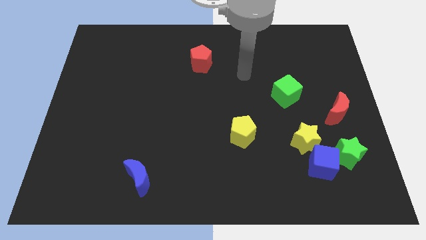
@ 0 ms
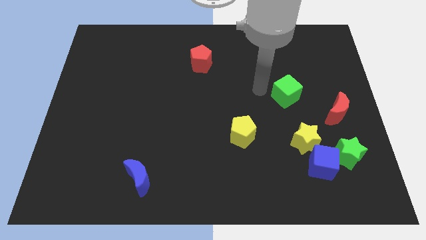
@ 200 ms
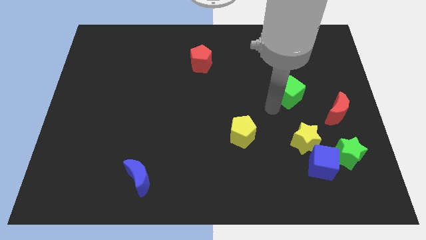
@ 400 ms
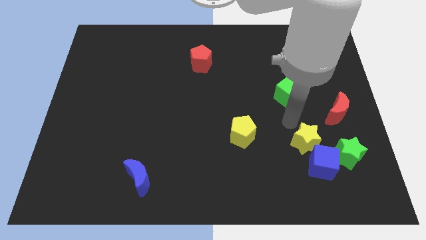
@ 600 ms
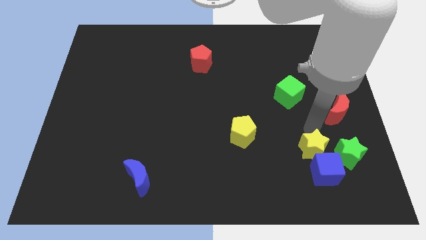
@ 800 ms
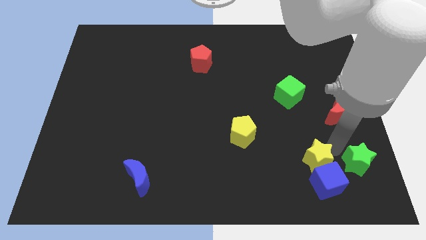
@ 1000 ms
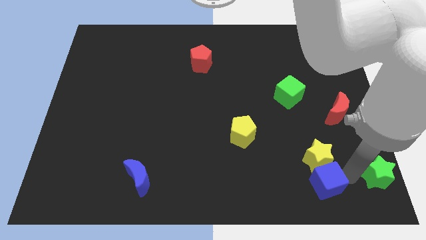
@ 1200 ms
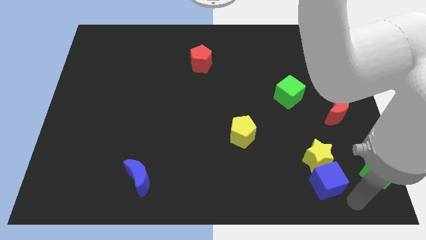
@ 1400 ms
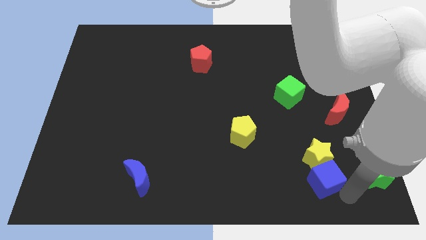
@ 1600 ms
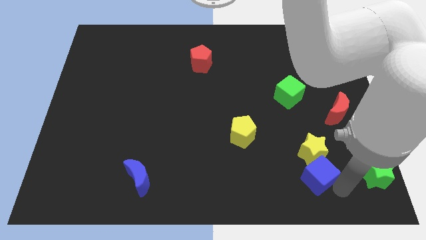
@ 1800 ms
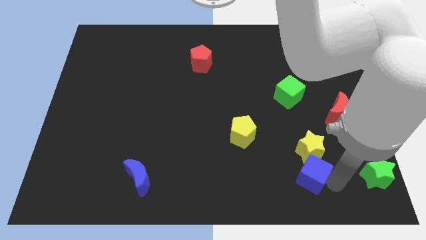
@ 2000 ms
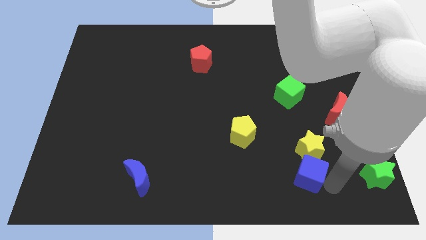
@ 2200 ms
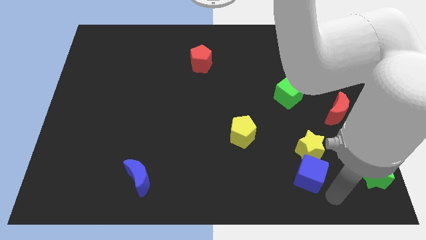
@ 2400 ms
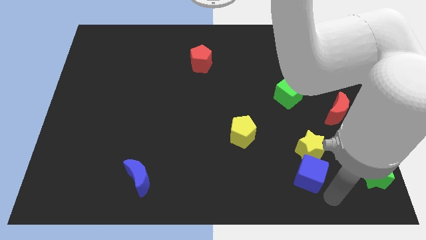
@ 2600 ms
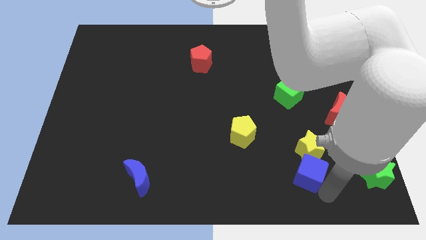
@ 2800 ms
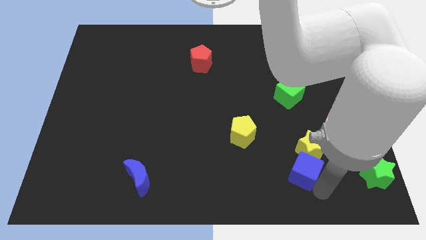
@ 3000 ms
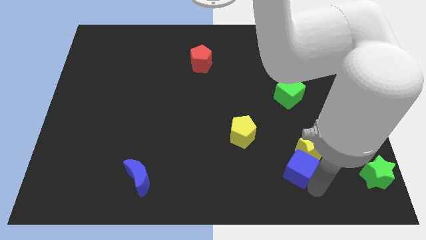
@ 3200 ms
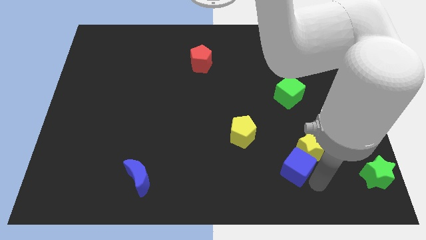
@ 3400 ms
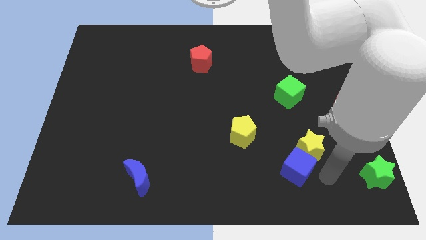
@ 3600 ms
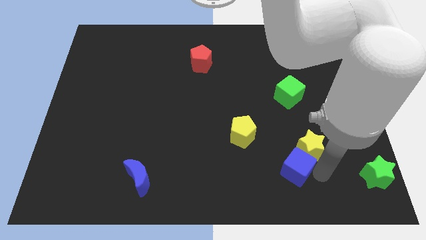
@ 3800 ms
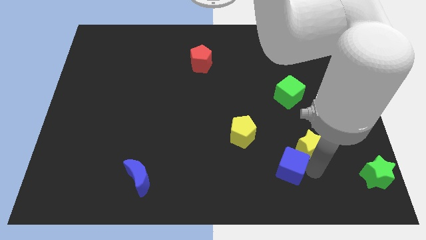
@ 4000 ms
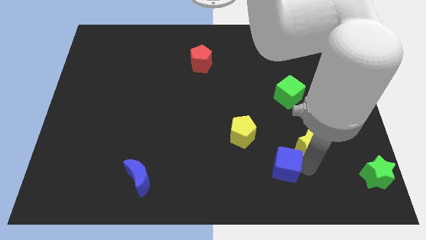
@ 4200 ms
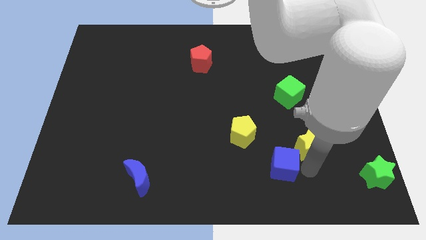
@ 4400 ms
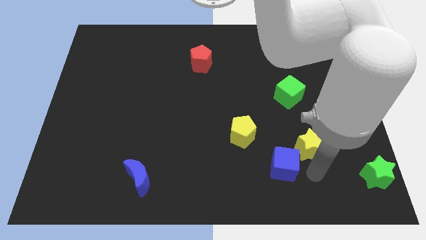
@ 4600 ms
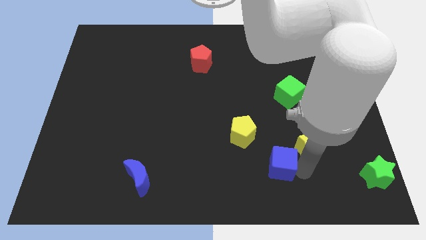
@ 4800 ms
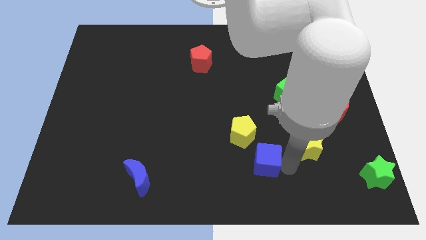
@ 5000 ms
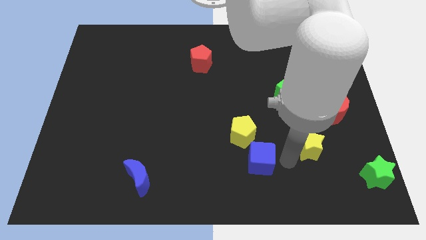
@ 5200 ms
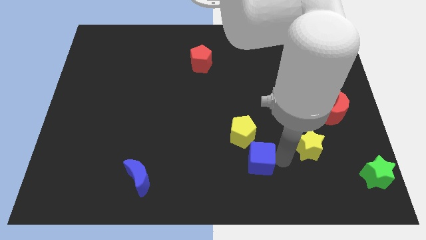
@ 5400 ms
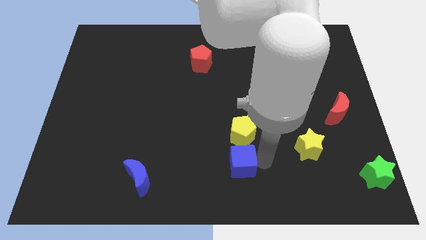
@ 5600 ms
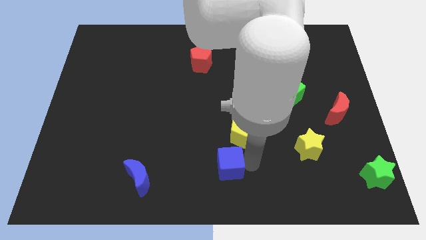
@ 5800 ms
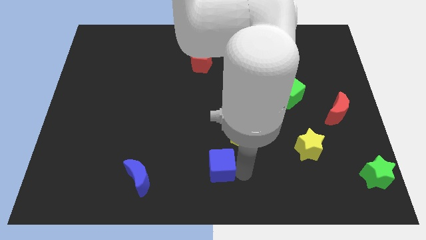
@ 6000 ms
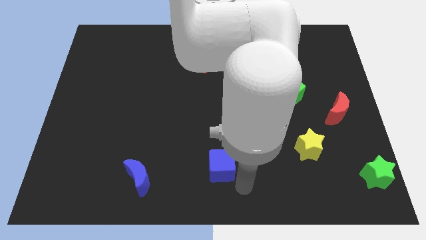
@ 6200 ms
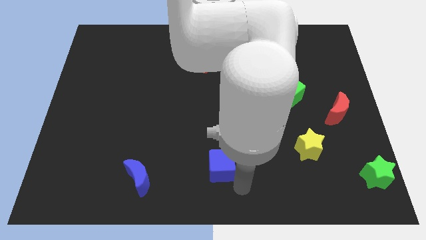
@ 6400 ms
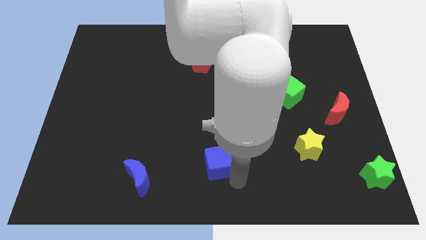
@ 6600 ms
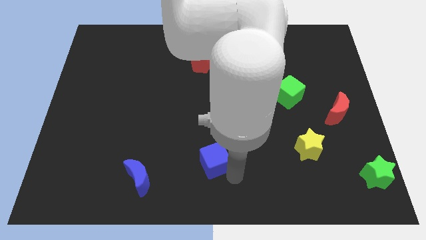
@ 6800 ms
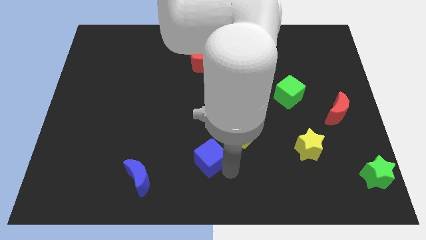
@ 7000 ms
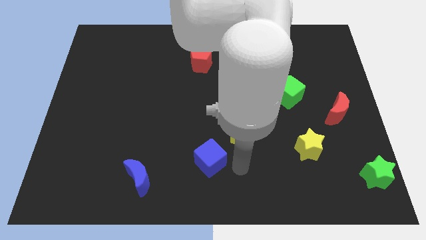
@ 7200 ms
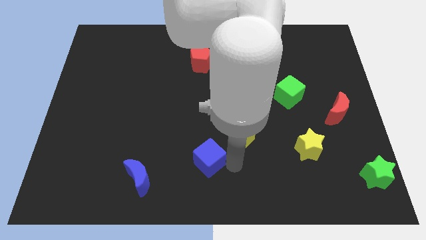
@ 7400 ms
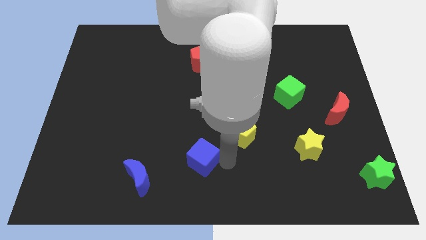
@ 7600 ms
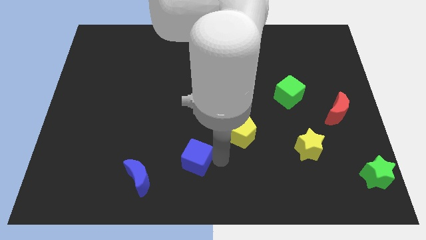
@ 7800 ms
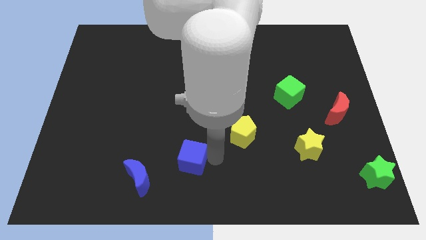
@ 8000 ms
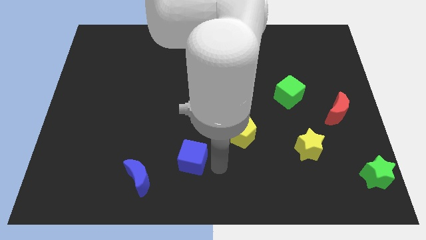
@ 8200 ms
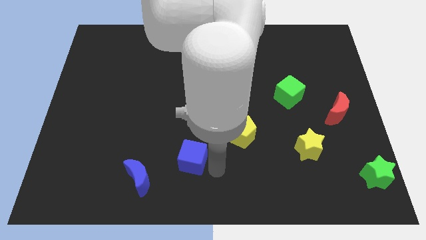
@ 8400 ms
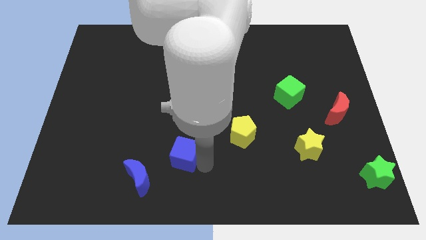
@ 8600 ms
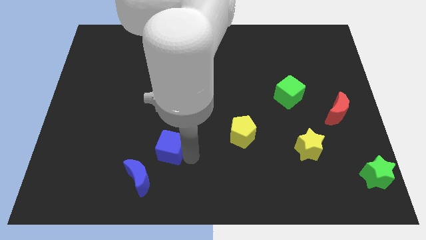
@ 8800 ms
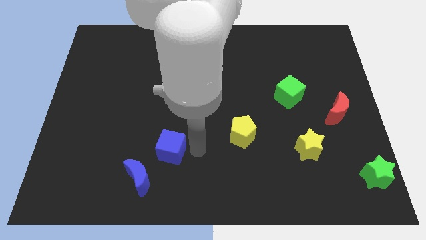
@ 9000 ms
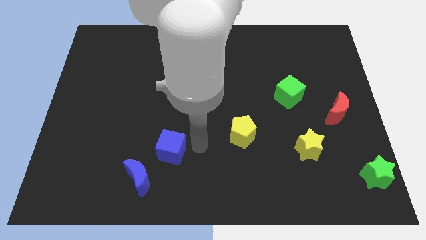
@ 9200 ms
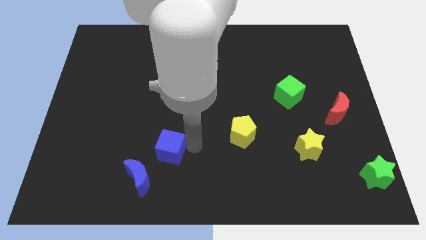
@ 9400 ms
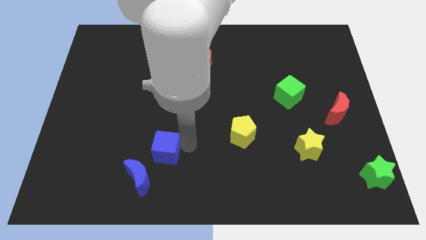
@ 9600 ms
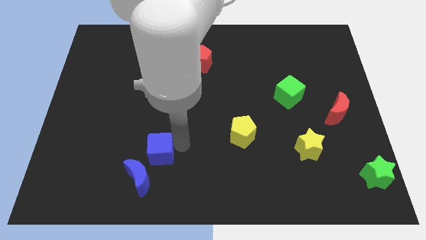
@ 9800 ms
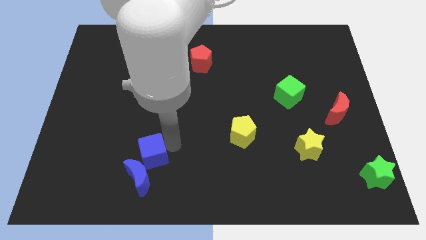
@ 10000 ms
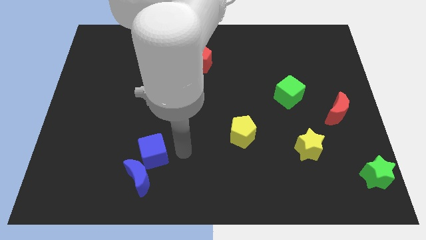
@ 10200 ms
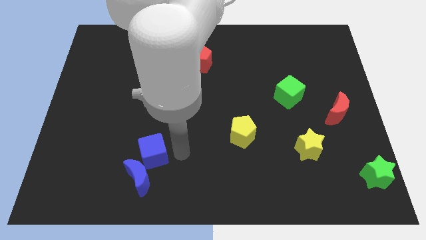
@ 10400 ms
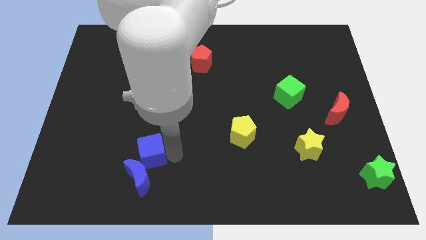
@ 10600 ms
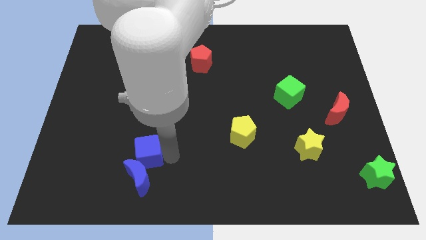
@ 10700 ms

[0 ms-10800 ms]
put the blue cube to the top left side of the blue moon

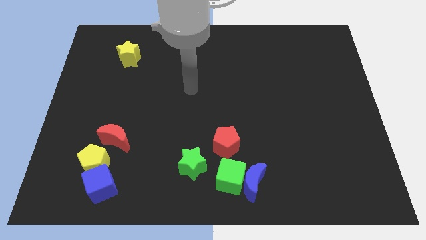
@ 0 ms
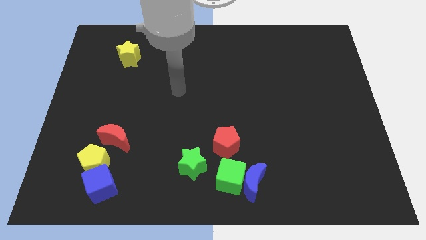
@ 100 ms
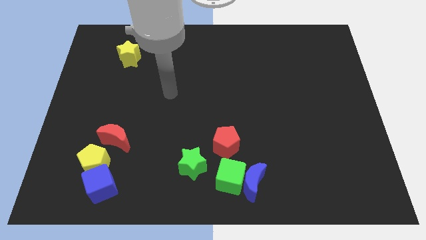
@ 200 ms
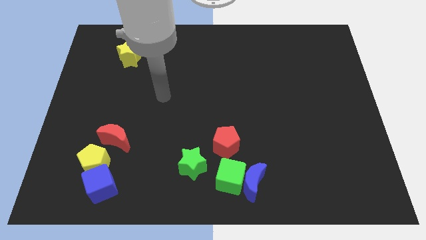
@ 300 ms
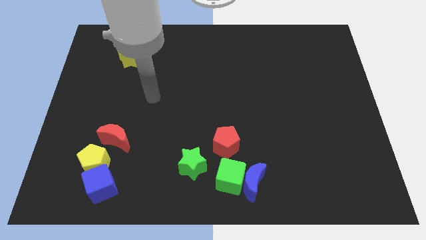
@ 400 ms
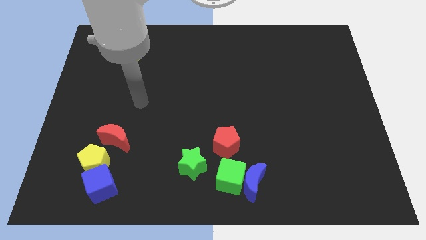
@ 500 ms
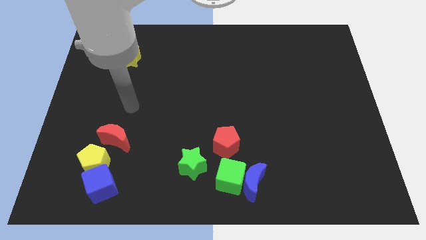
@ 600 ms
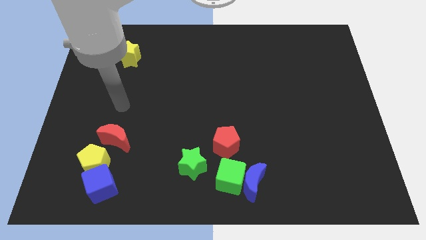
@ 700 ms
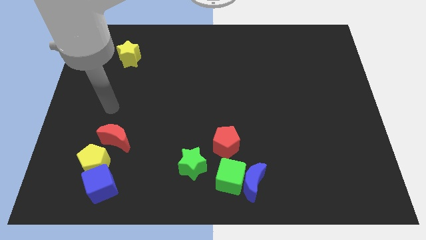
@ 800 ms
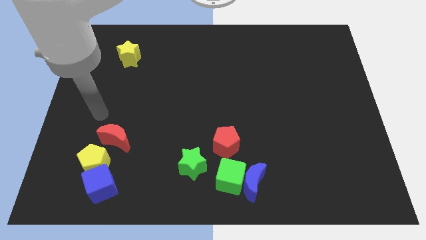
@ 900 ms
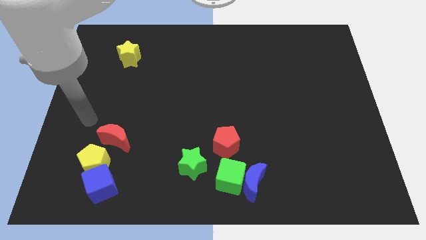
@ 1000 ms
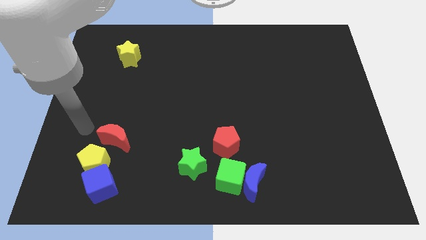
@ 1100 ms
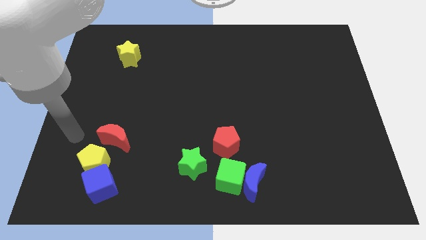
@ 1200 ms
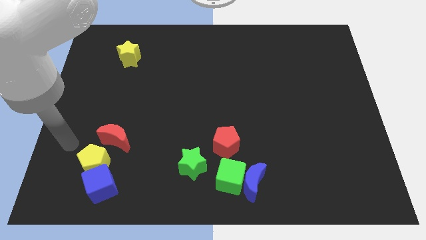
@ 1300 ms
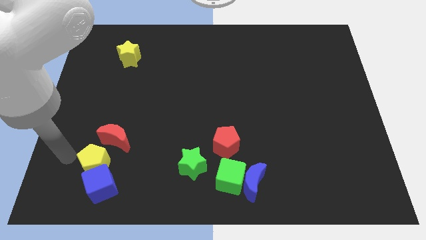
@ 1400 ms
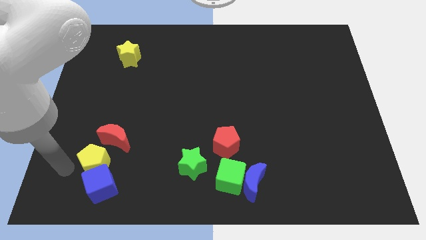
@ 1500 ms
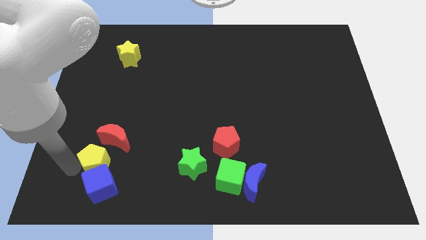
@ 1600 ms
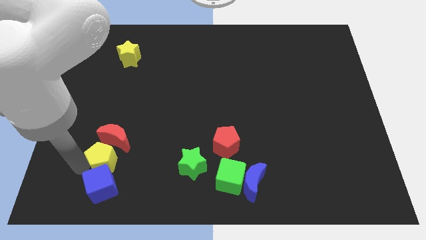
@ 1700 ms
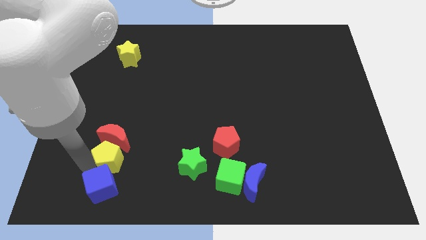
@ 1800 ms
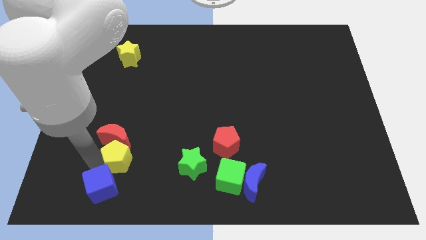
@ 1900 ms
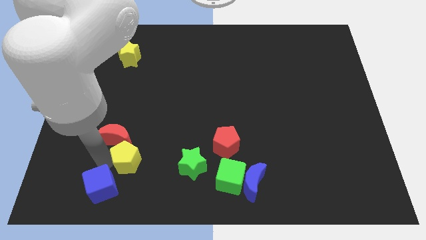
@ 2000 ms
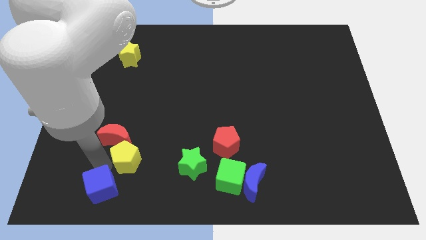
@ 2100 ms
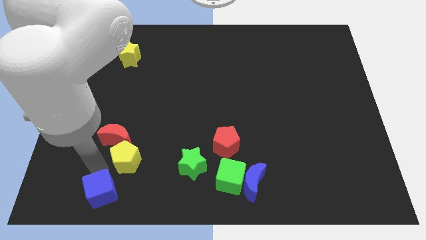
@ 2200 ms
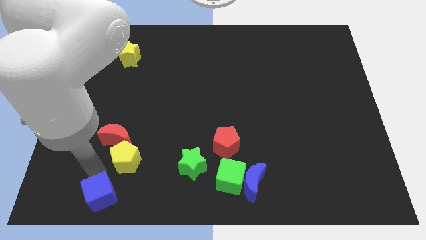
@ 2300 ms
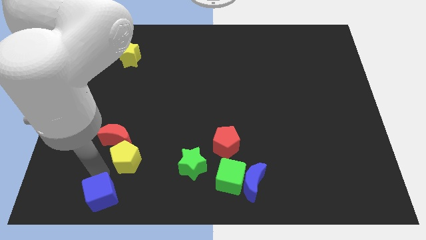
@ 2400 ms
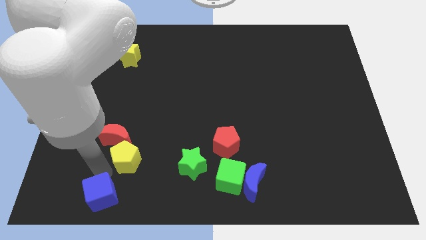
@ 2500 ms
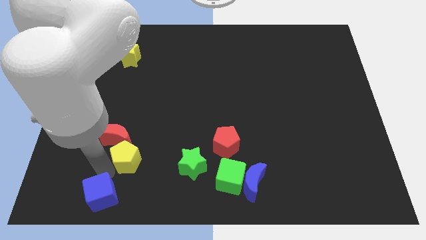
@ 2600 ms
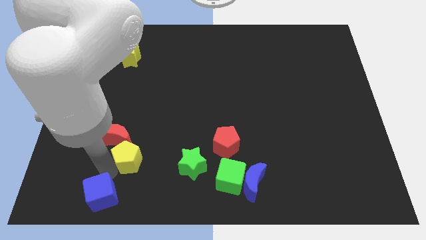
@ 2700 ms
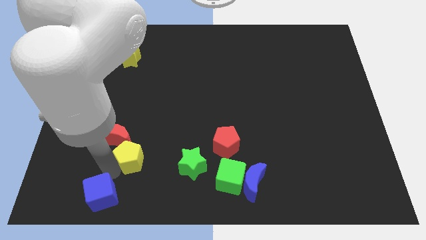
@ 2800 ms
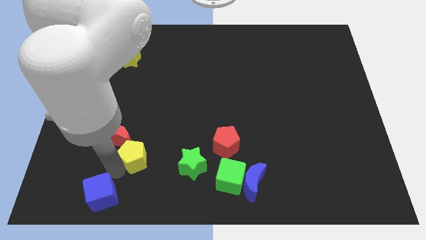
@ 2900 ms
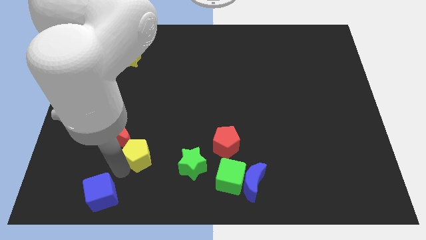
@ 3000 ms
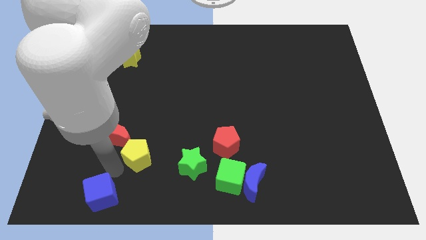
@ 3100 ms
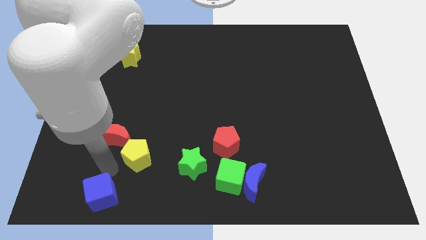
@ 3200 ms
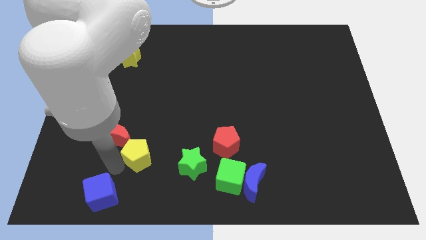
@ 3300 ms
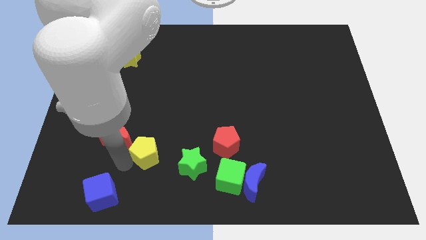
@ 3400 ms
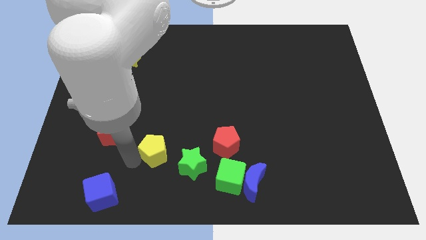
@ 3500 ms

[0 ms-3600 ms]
move the yellow pentagon diagonally up and to the left of the green star
